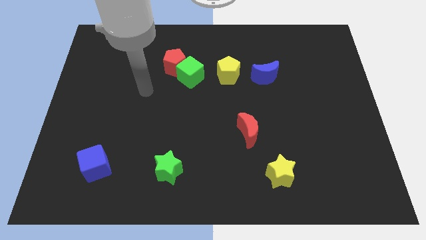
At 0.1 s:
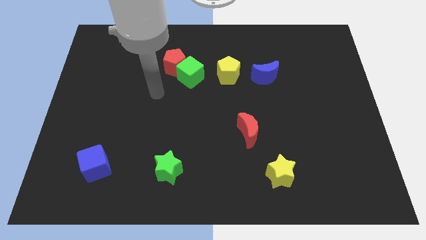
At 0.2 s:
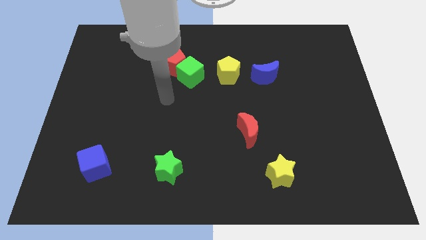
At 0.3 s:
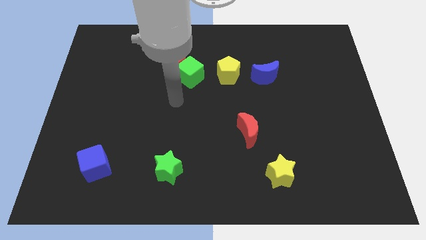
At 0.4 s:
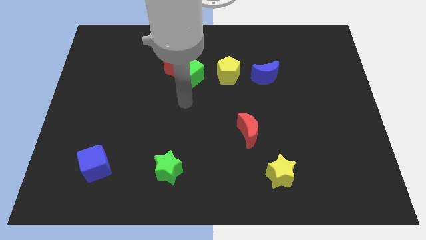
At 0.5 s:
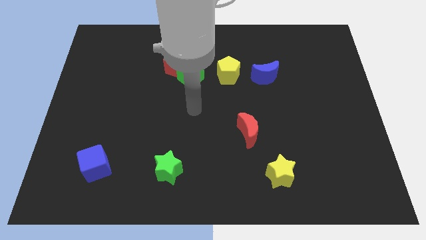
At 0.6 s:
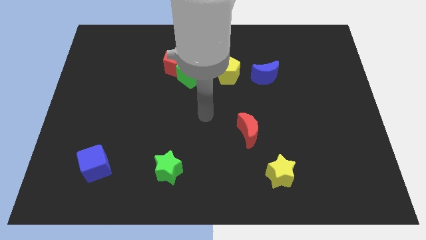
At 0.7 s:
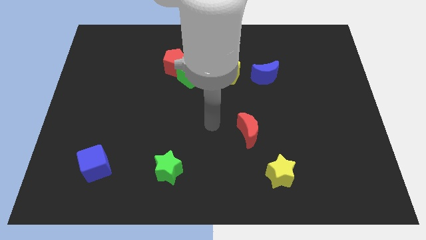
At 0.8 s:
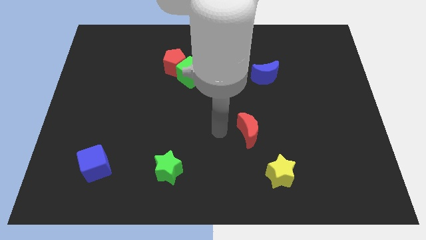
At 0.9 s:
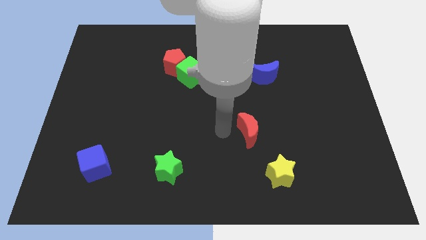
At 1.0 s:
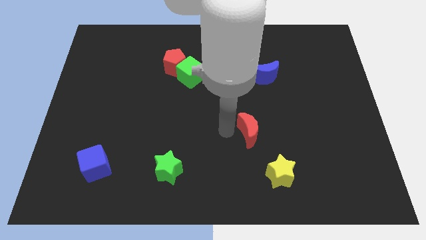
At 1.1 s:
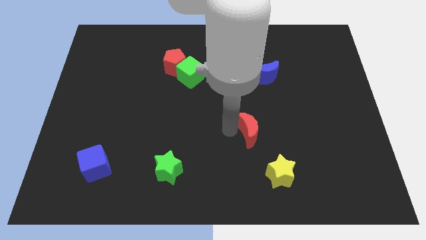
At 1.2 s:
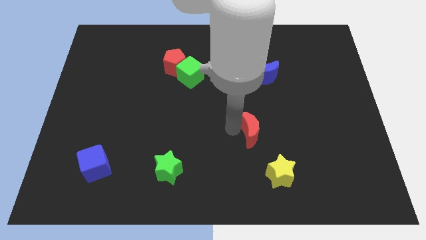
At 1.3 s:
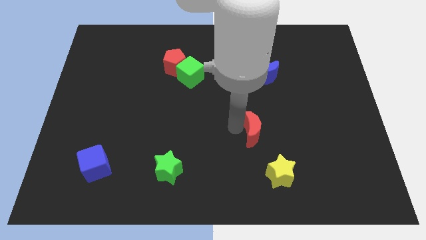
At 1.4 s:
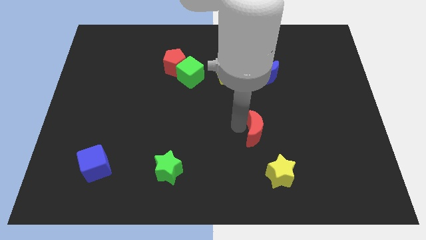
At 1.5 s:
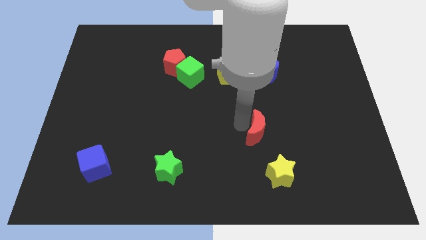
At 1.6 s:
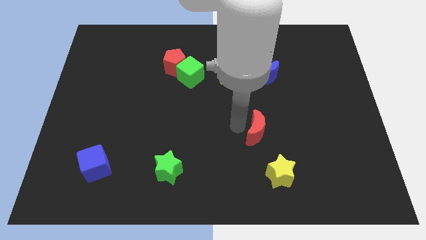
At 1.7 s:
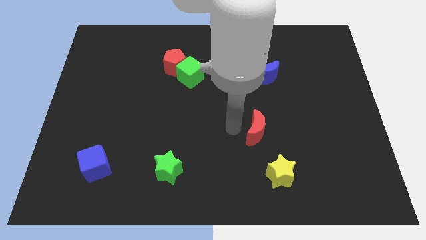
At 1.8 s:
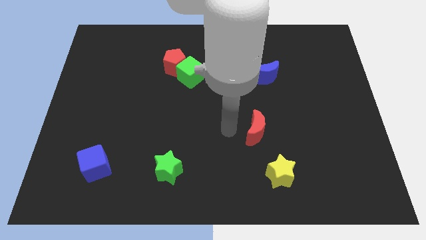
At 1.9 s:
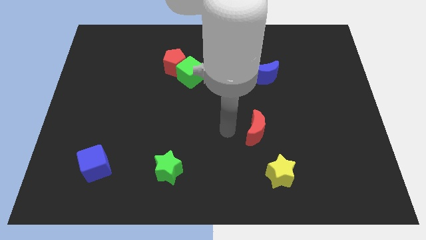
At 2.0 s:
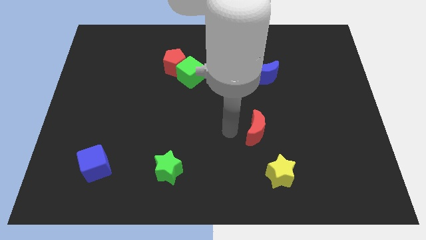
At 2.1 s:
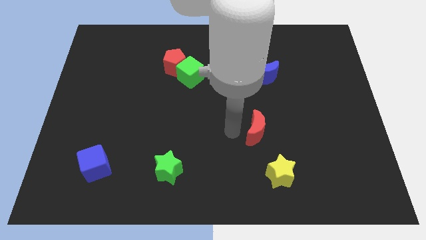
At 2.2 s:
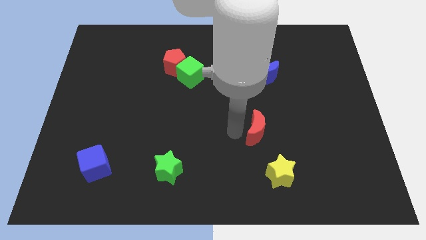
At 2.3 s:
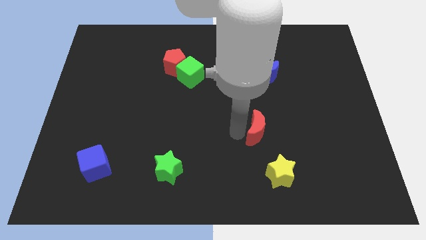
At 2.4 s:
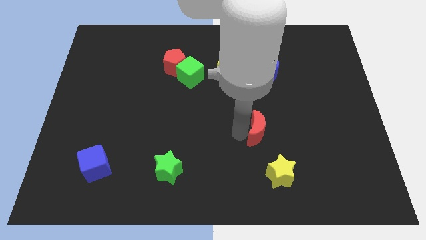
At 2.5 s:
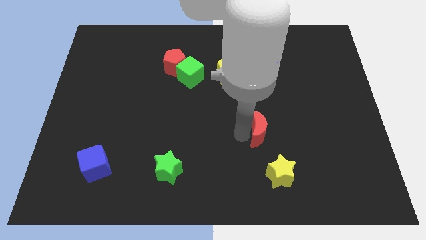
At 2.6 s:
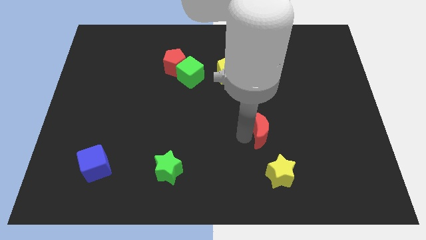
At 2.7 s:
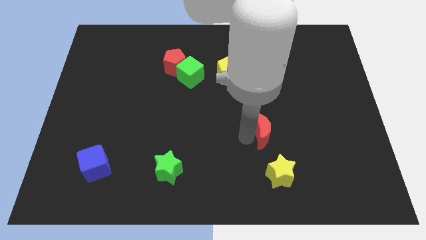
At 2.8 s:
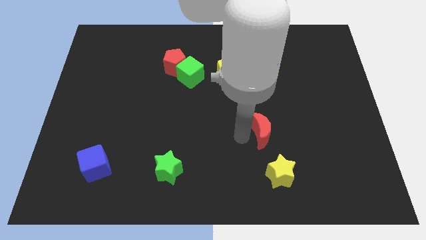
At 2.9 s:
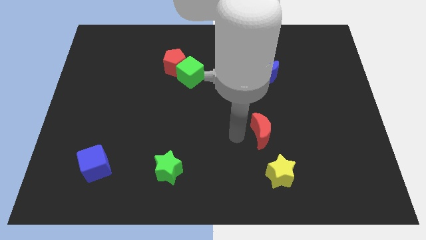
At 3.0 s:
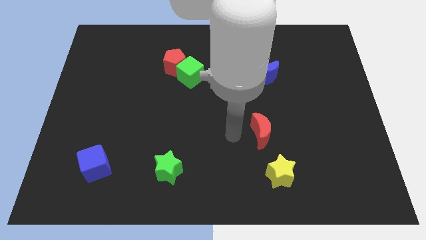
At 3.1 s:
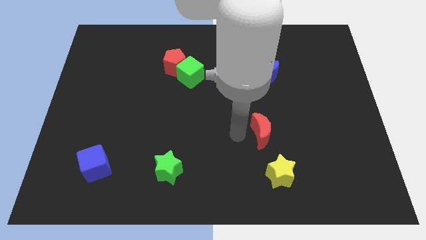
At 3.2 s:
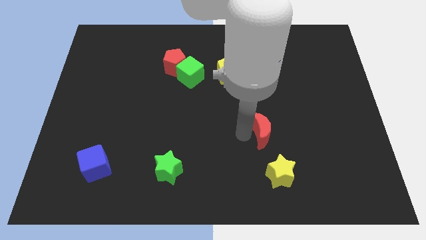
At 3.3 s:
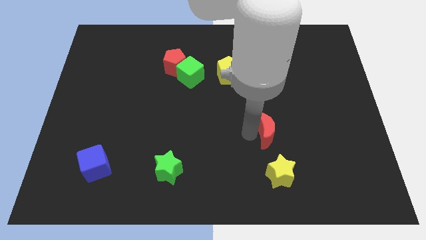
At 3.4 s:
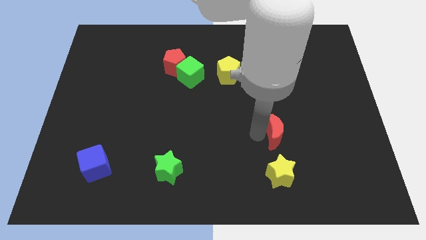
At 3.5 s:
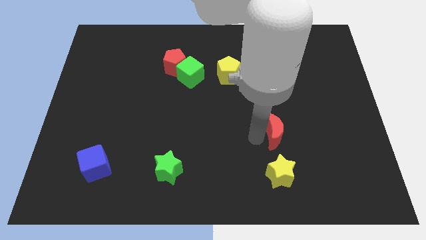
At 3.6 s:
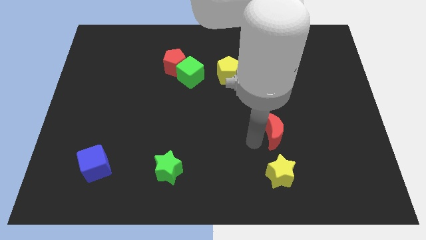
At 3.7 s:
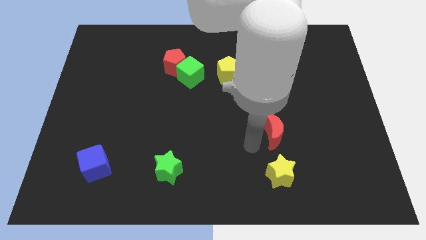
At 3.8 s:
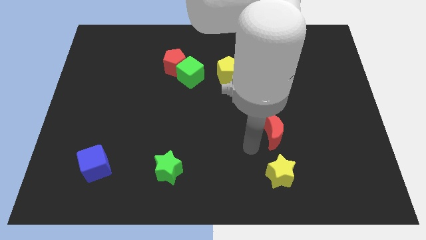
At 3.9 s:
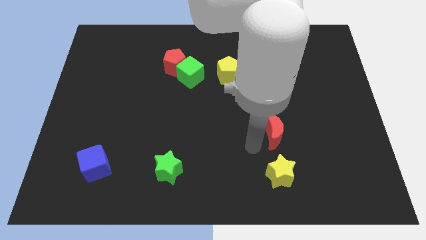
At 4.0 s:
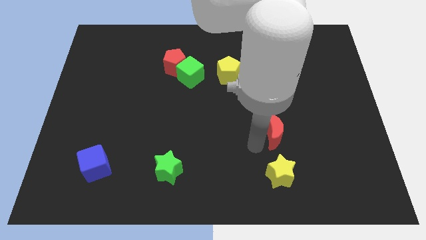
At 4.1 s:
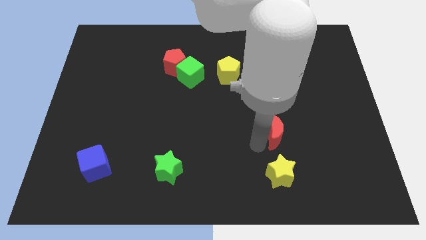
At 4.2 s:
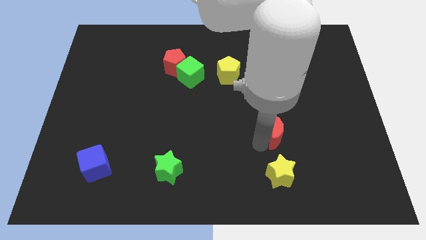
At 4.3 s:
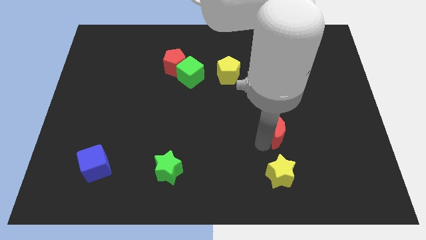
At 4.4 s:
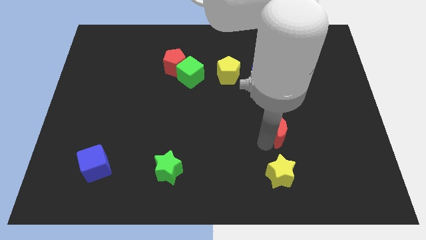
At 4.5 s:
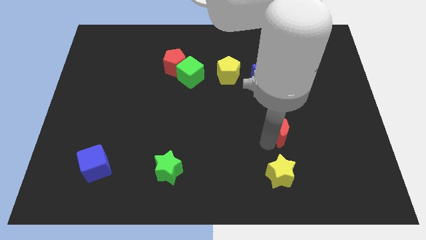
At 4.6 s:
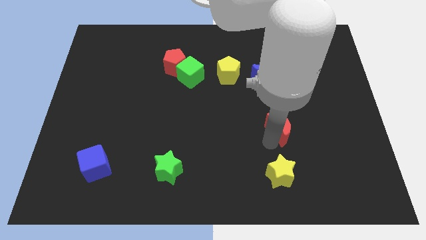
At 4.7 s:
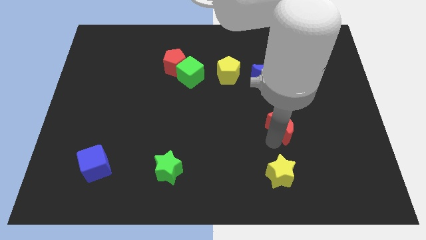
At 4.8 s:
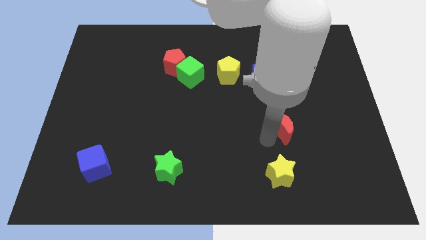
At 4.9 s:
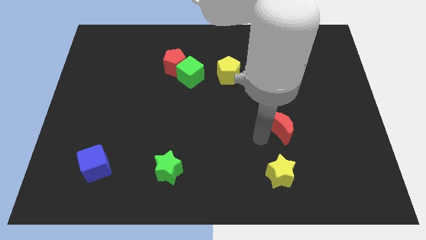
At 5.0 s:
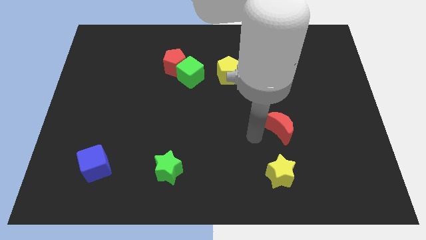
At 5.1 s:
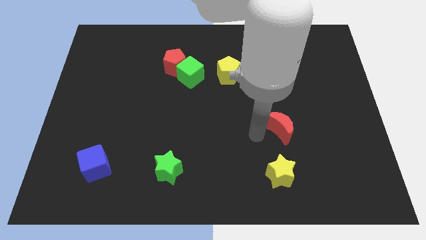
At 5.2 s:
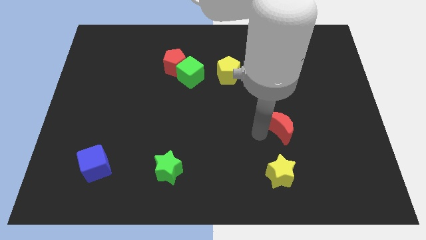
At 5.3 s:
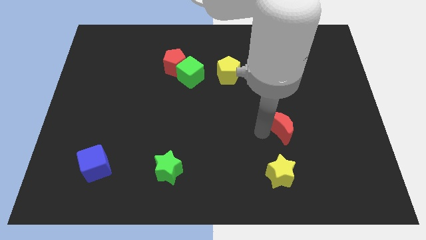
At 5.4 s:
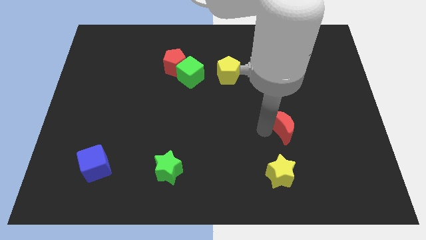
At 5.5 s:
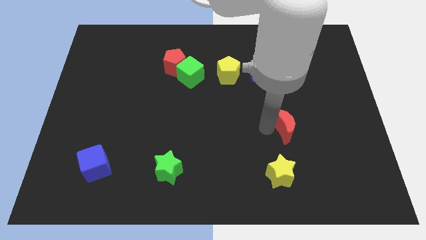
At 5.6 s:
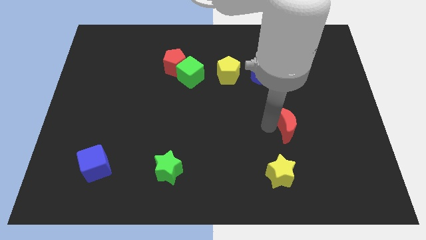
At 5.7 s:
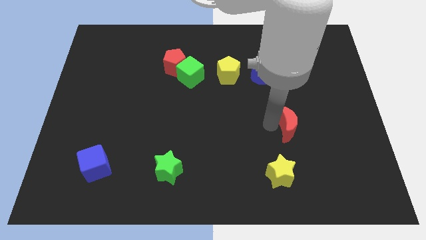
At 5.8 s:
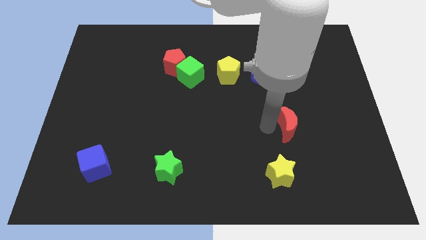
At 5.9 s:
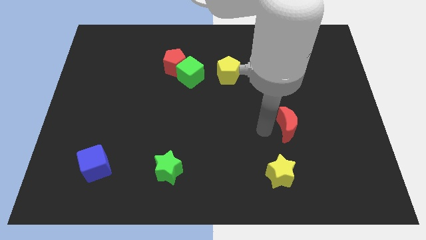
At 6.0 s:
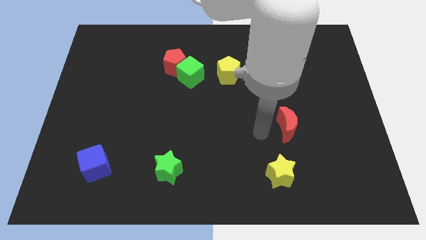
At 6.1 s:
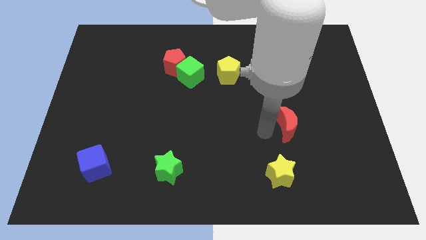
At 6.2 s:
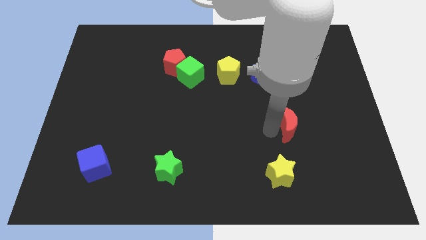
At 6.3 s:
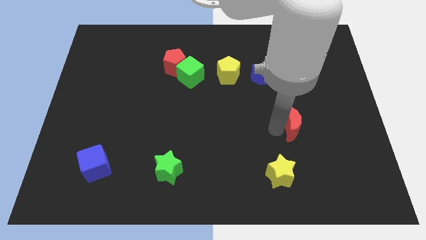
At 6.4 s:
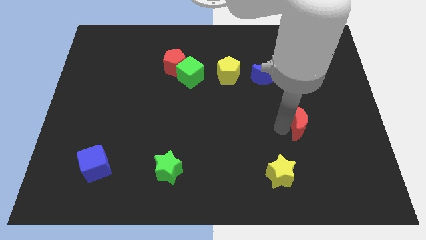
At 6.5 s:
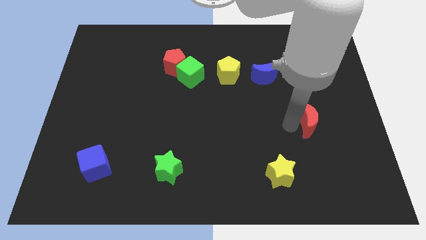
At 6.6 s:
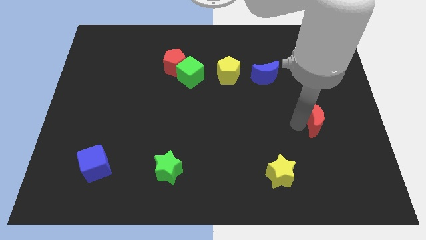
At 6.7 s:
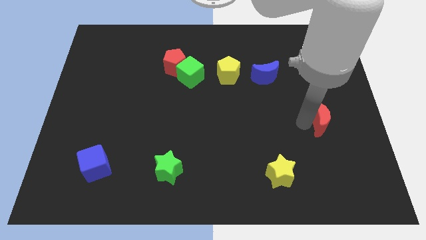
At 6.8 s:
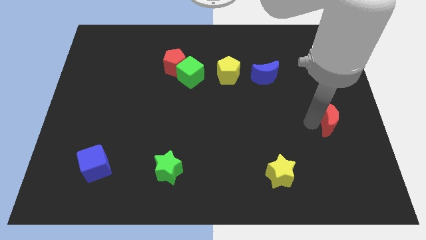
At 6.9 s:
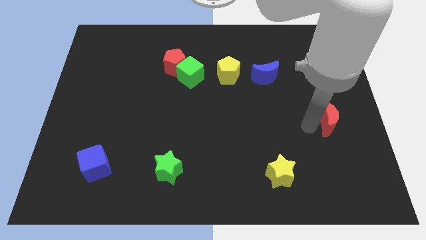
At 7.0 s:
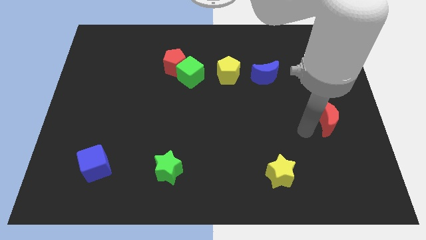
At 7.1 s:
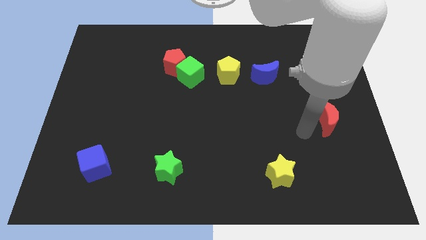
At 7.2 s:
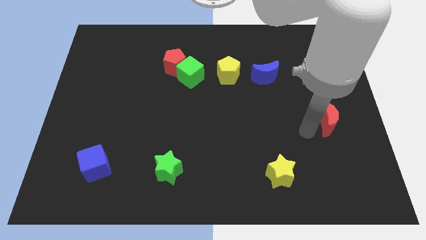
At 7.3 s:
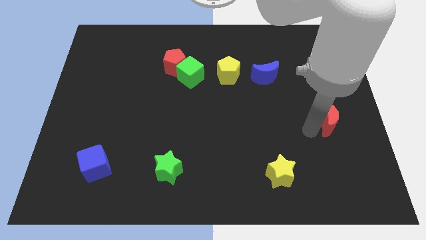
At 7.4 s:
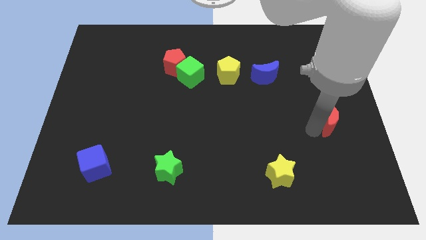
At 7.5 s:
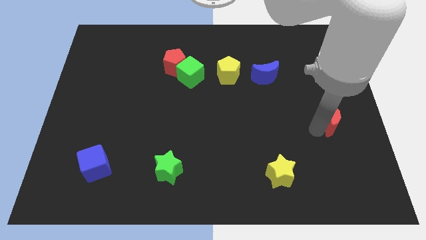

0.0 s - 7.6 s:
put the red moon to the right side
